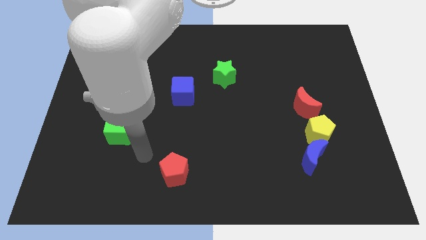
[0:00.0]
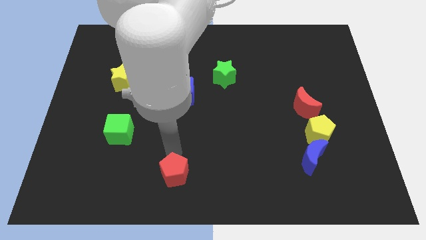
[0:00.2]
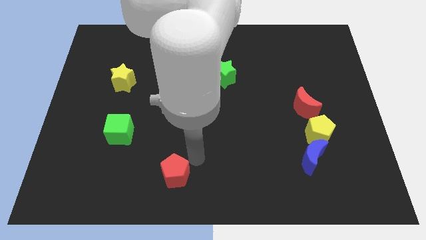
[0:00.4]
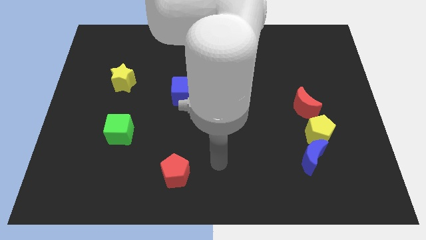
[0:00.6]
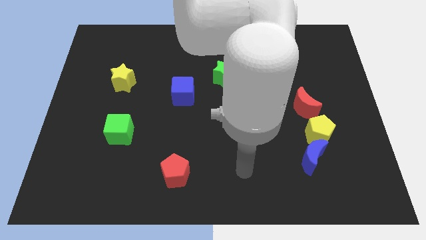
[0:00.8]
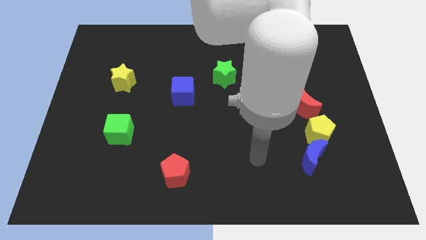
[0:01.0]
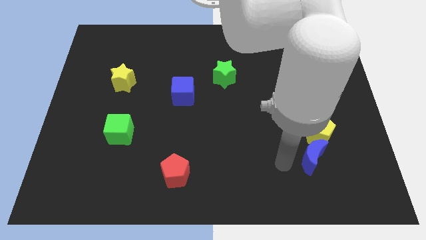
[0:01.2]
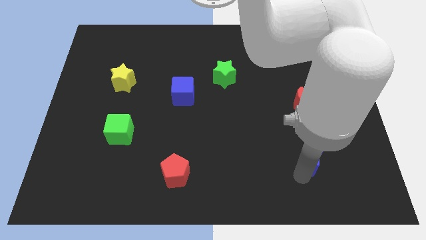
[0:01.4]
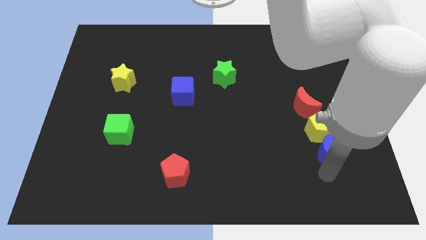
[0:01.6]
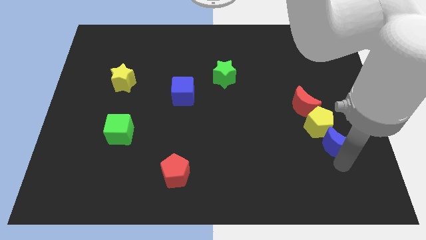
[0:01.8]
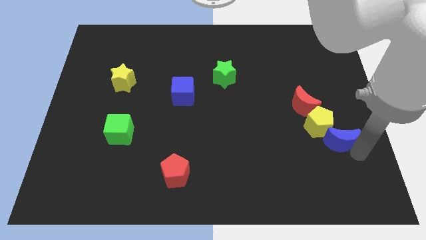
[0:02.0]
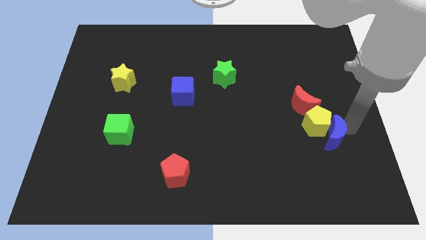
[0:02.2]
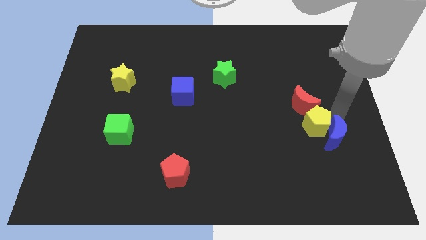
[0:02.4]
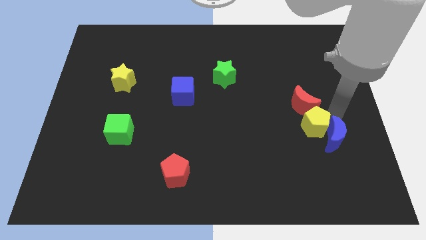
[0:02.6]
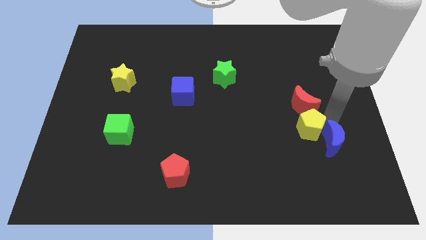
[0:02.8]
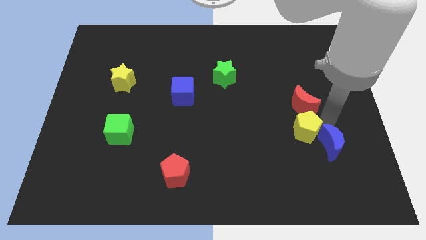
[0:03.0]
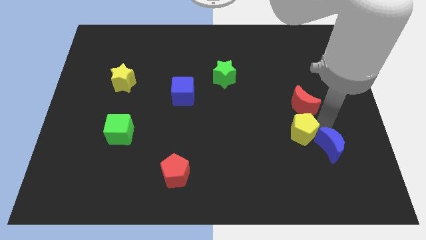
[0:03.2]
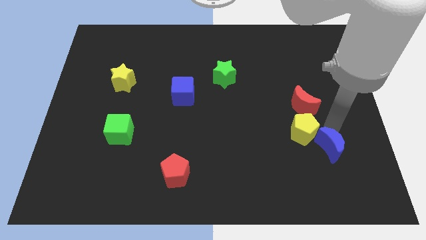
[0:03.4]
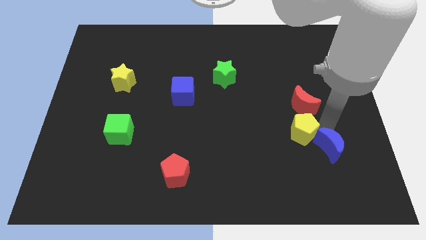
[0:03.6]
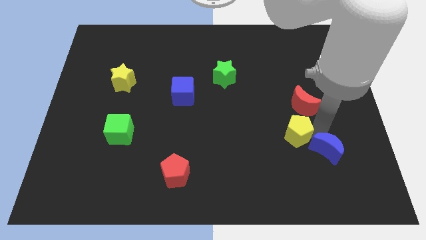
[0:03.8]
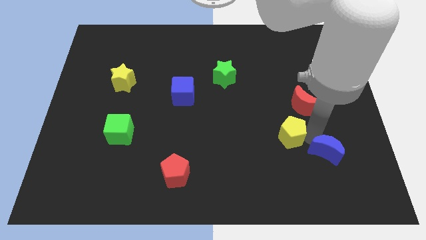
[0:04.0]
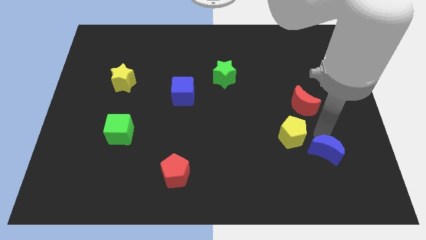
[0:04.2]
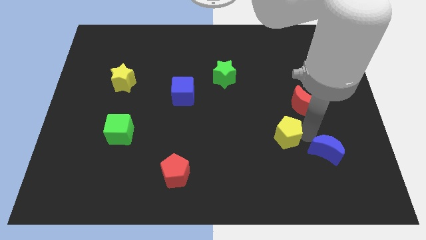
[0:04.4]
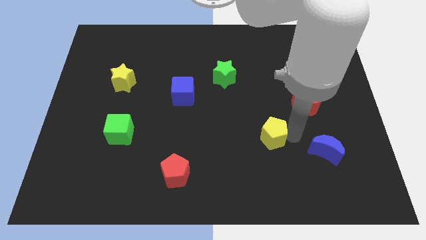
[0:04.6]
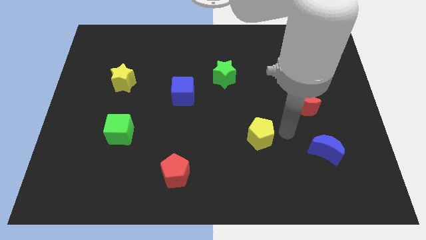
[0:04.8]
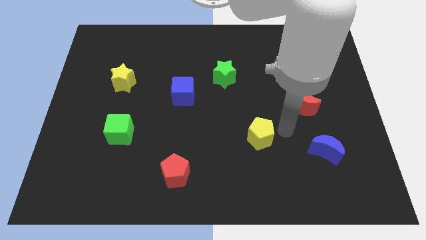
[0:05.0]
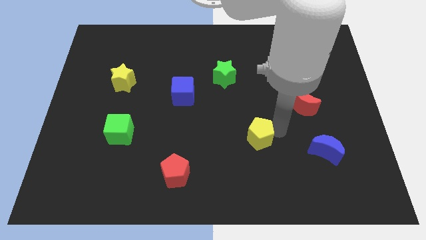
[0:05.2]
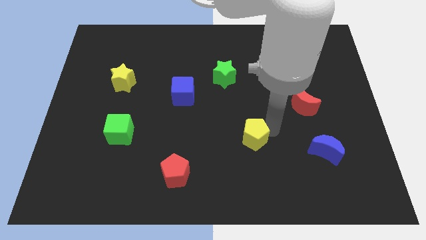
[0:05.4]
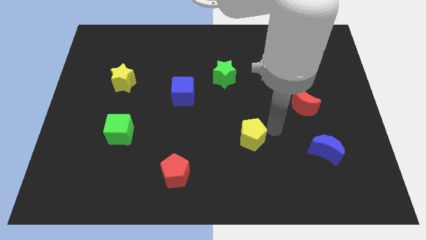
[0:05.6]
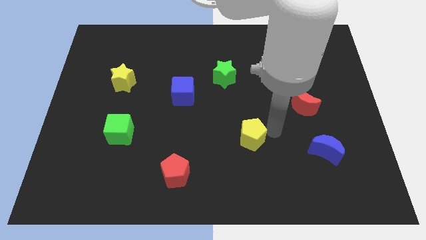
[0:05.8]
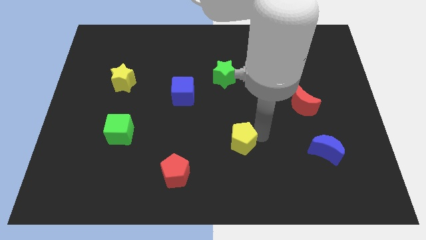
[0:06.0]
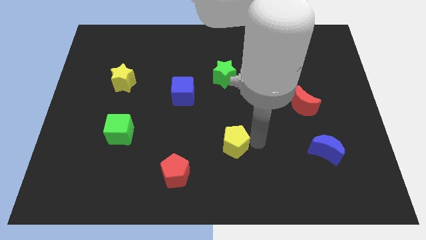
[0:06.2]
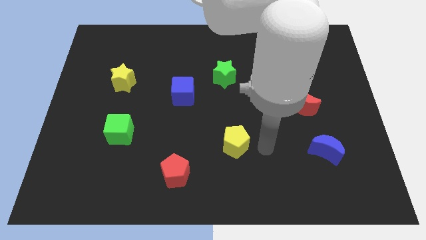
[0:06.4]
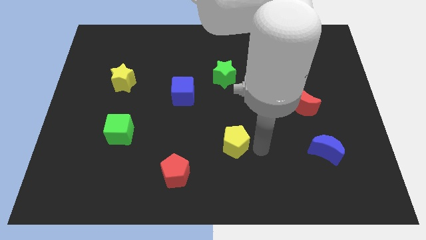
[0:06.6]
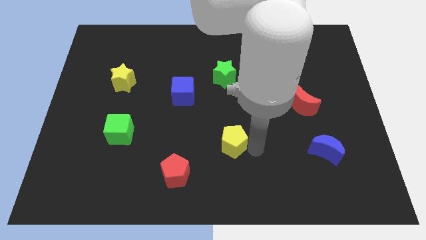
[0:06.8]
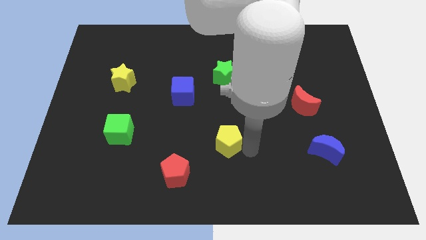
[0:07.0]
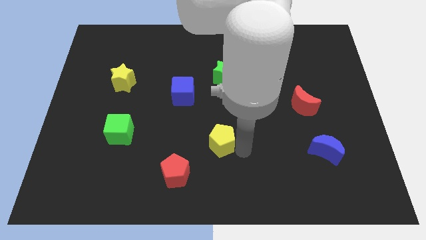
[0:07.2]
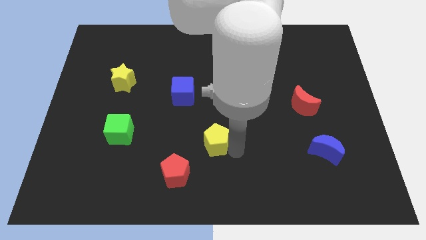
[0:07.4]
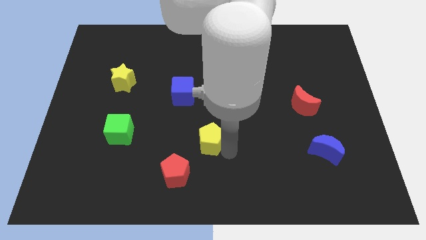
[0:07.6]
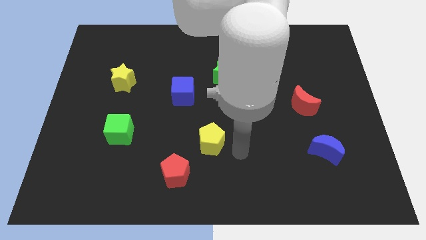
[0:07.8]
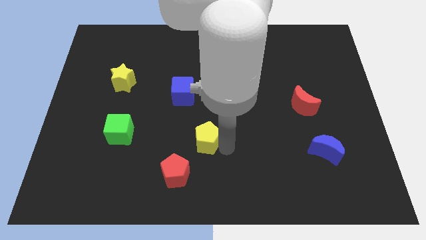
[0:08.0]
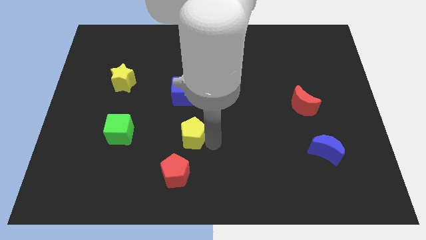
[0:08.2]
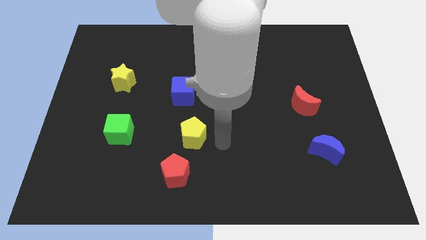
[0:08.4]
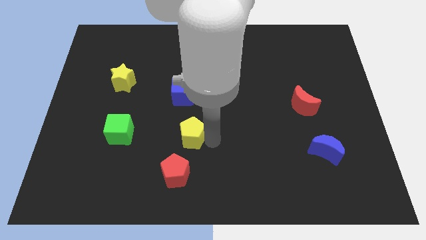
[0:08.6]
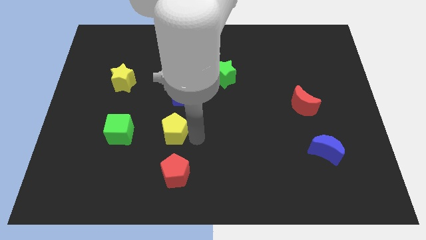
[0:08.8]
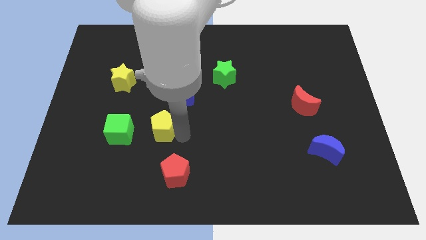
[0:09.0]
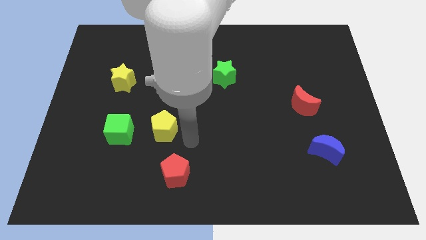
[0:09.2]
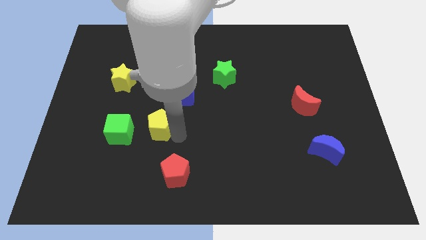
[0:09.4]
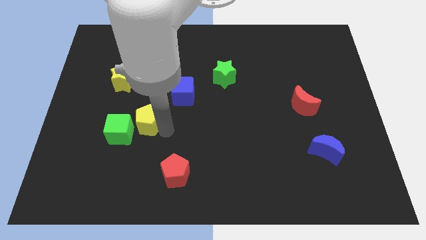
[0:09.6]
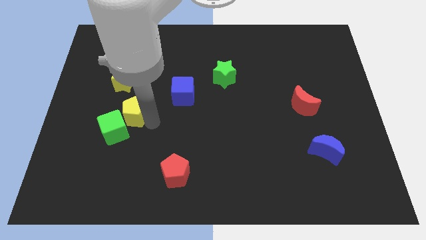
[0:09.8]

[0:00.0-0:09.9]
move the yellow pentagon below the yellow star

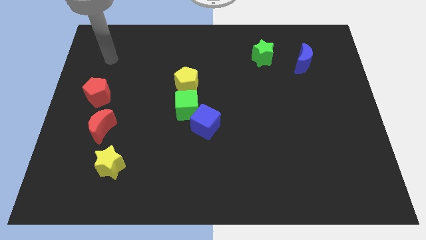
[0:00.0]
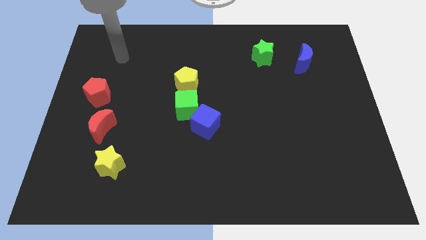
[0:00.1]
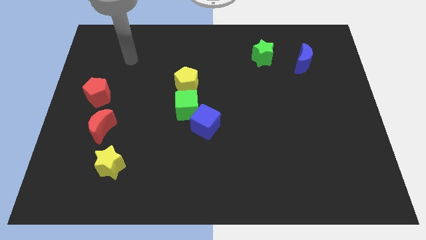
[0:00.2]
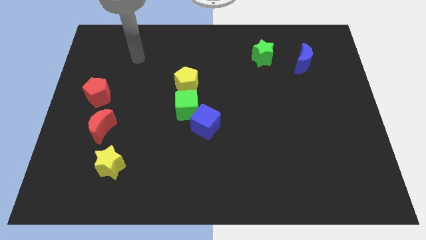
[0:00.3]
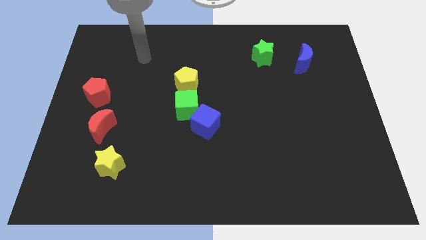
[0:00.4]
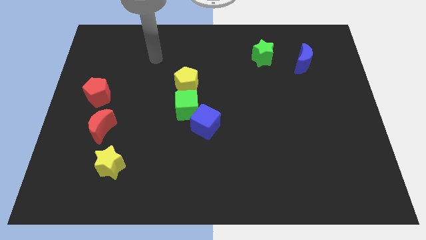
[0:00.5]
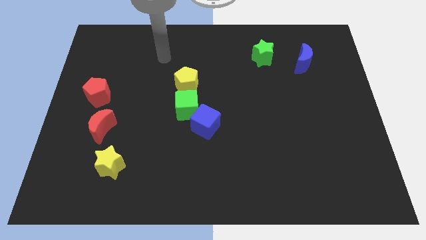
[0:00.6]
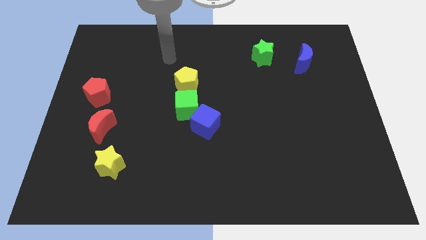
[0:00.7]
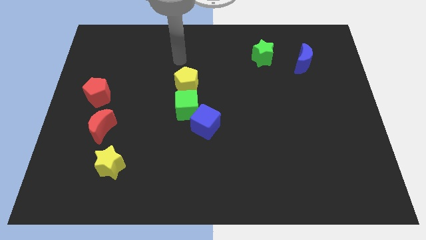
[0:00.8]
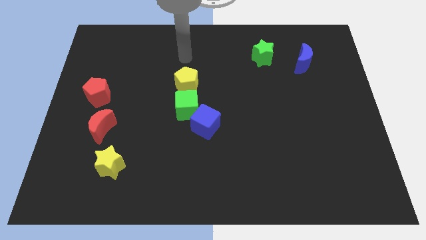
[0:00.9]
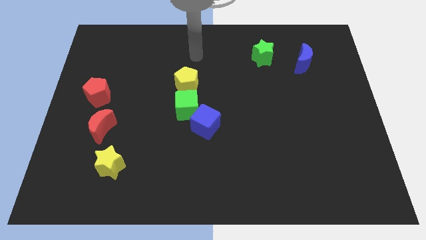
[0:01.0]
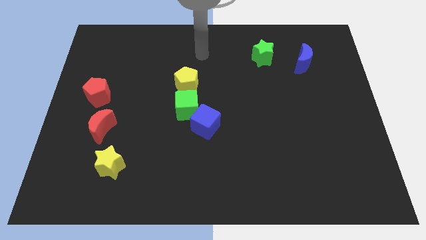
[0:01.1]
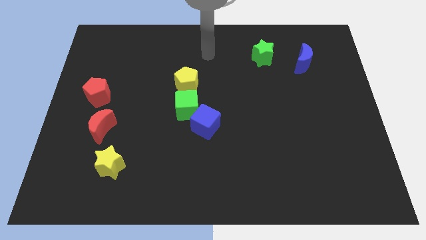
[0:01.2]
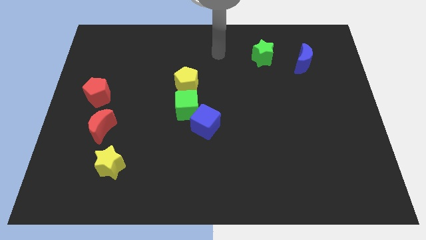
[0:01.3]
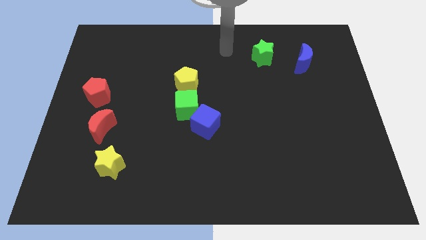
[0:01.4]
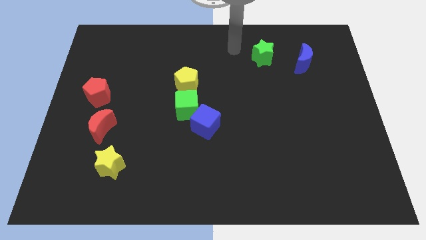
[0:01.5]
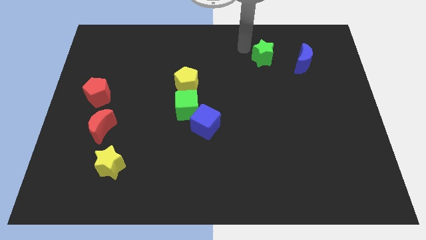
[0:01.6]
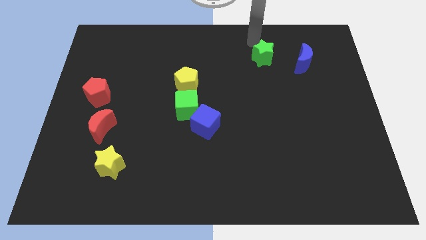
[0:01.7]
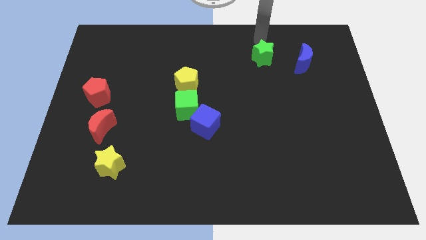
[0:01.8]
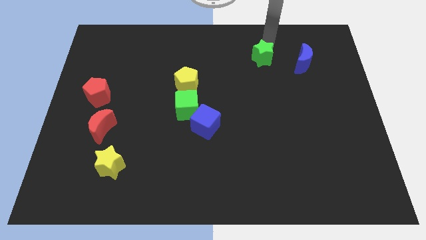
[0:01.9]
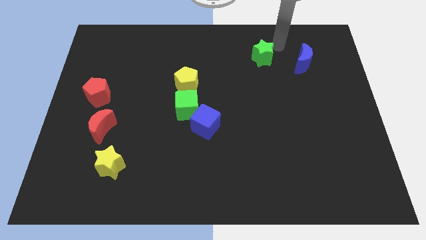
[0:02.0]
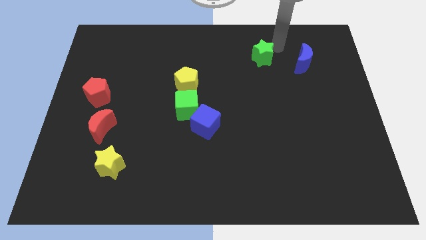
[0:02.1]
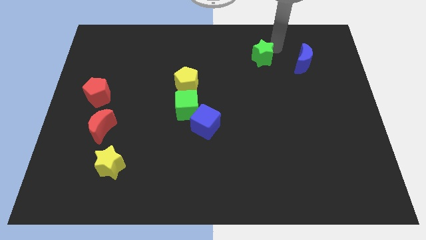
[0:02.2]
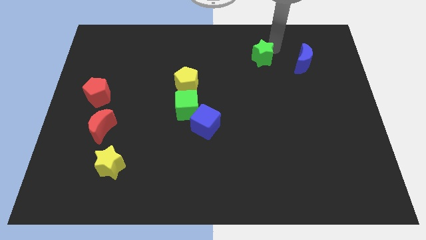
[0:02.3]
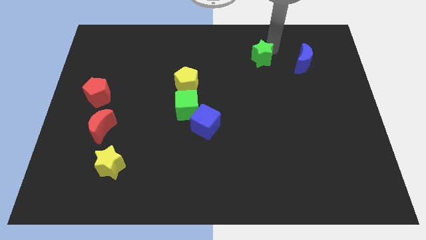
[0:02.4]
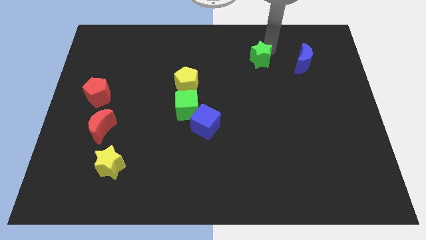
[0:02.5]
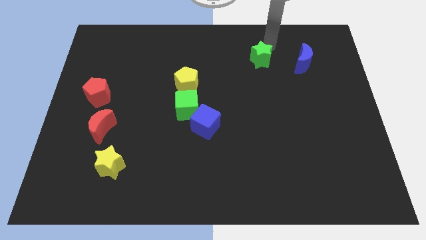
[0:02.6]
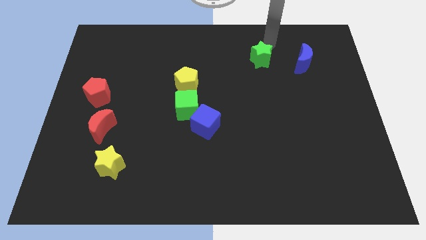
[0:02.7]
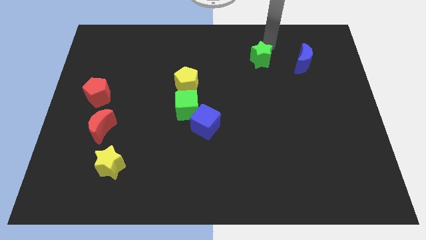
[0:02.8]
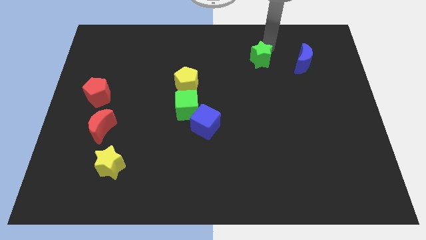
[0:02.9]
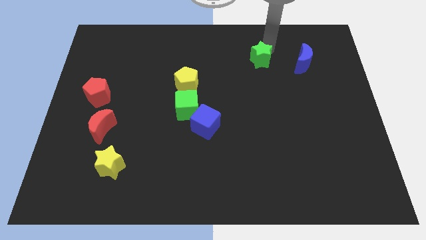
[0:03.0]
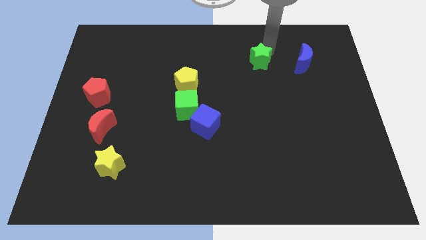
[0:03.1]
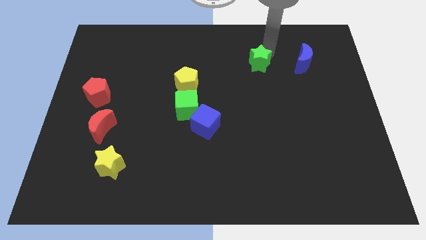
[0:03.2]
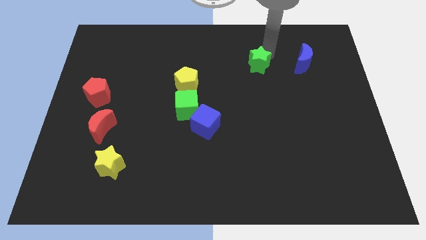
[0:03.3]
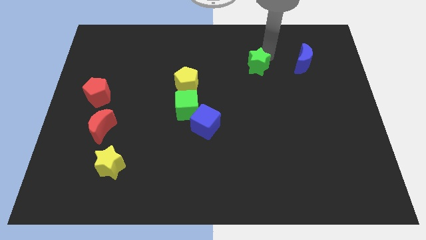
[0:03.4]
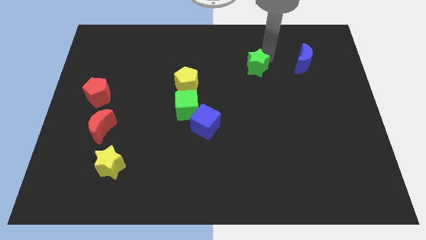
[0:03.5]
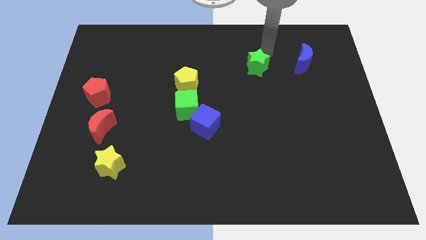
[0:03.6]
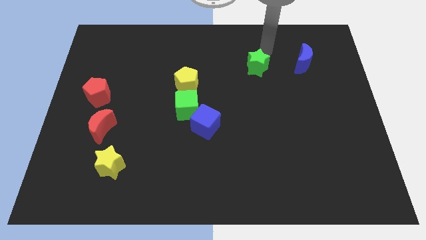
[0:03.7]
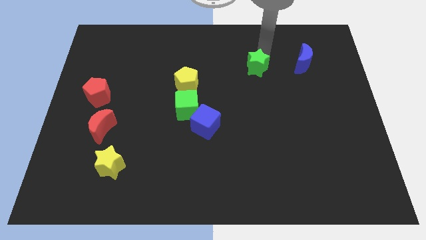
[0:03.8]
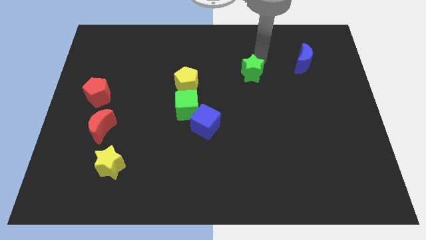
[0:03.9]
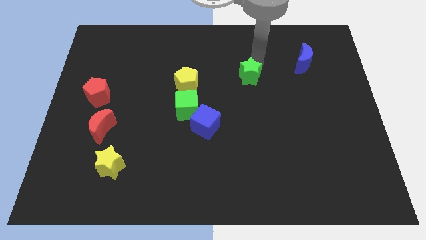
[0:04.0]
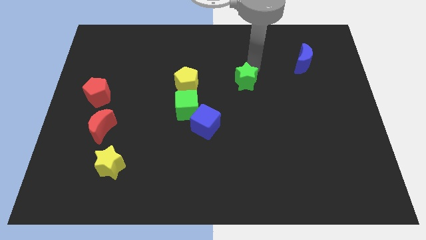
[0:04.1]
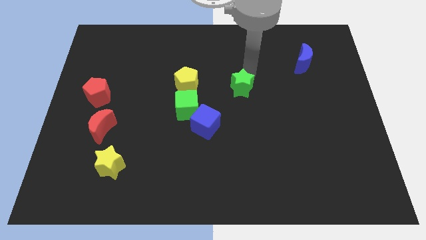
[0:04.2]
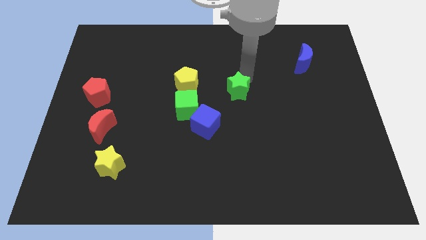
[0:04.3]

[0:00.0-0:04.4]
push the green star diagonally up and to the right of the blue cube
